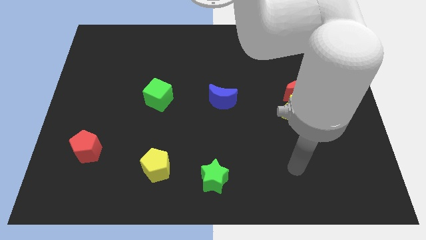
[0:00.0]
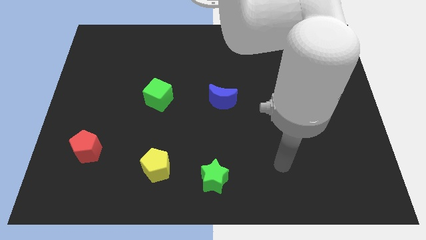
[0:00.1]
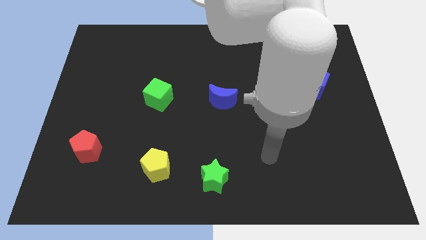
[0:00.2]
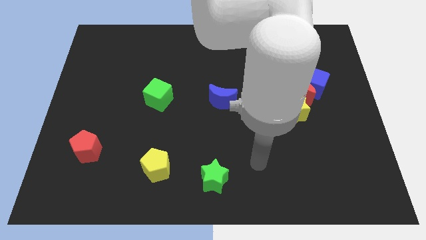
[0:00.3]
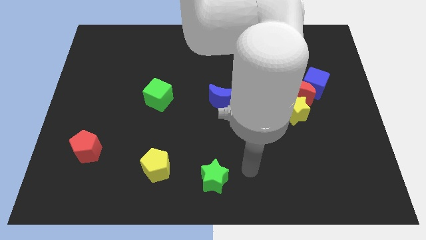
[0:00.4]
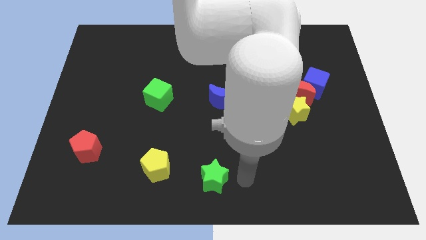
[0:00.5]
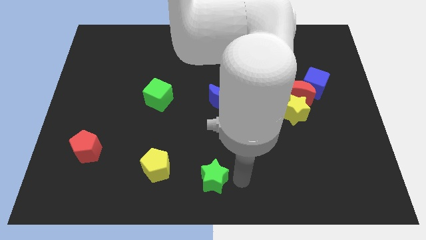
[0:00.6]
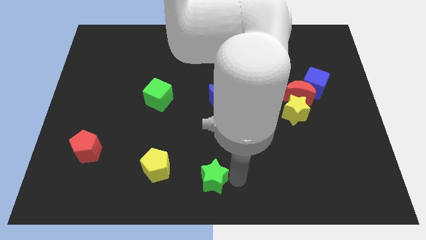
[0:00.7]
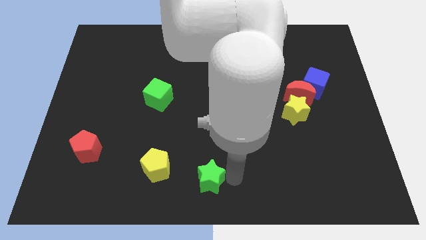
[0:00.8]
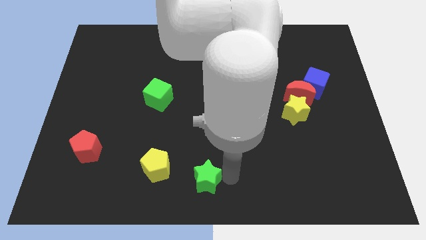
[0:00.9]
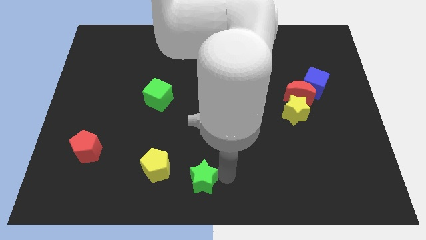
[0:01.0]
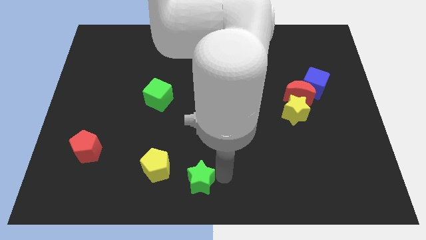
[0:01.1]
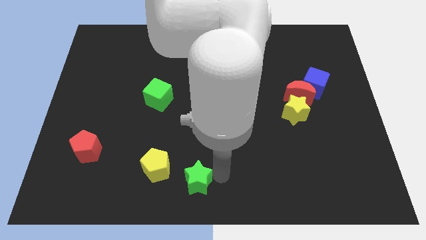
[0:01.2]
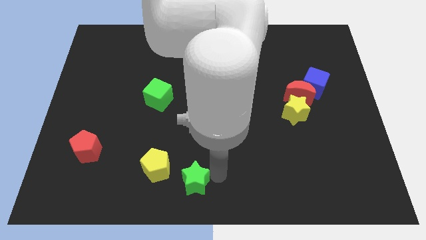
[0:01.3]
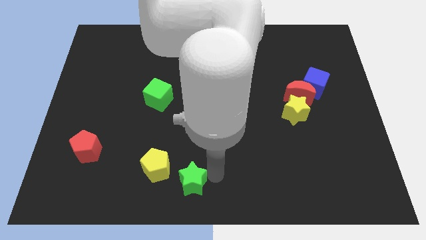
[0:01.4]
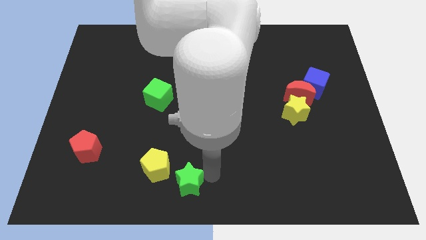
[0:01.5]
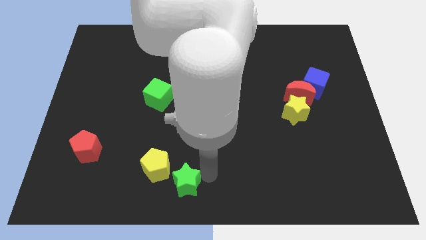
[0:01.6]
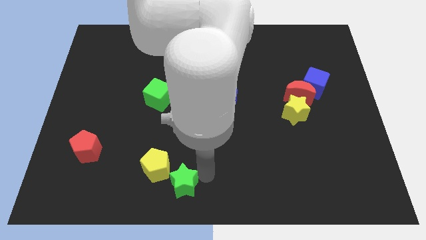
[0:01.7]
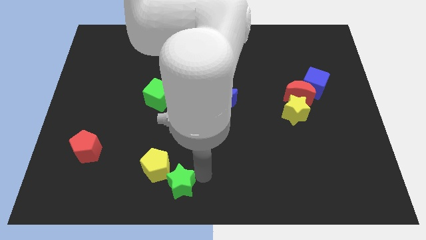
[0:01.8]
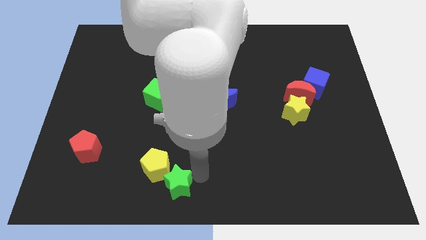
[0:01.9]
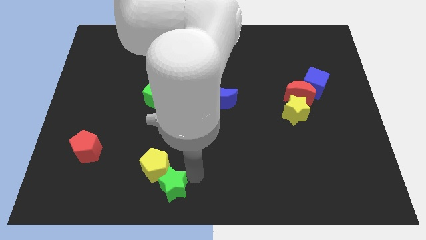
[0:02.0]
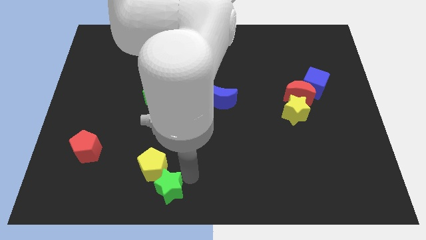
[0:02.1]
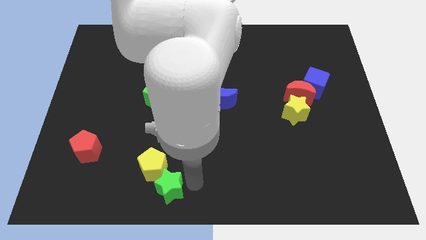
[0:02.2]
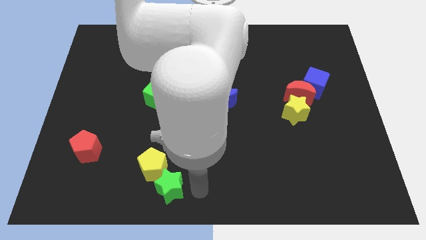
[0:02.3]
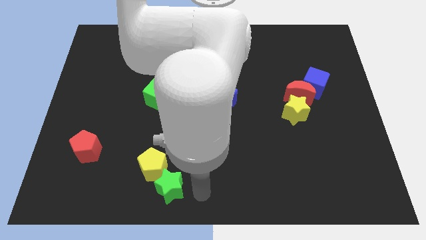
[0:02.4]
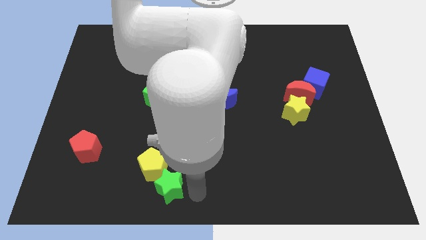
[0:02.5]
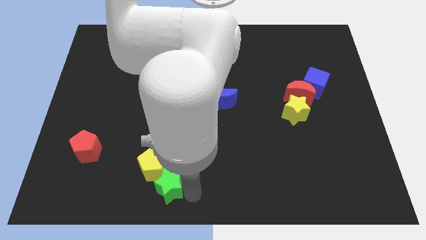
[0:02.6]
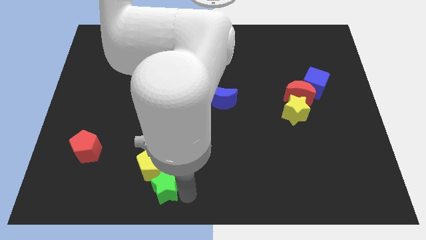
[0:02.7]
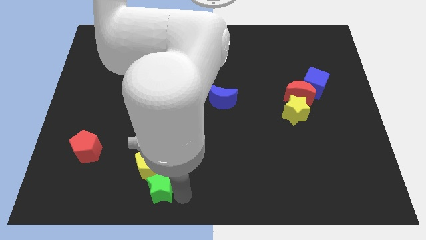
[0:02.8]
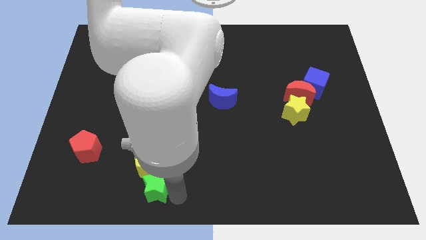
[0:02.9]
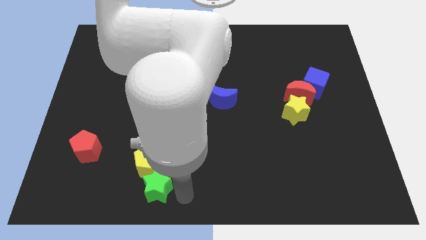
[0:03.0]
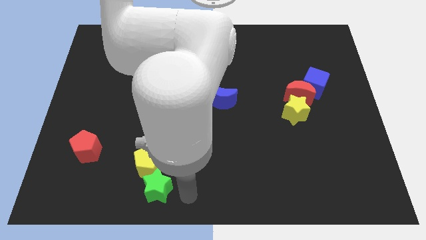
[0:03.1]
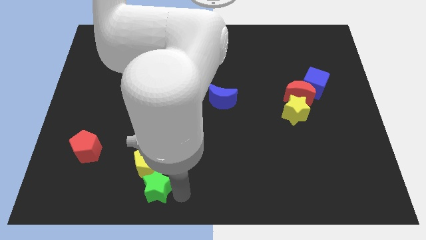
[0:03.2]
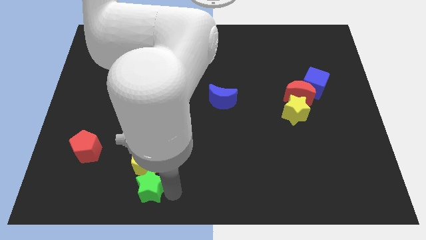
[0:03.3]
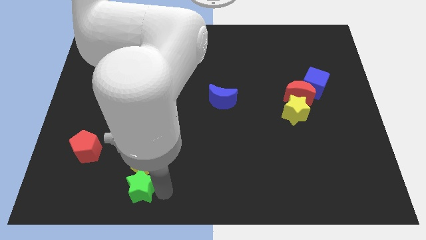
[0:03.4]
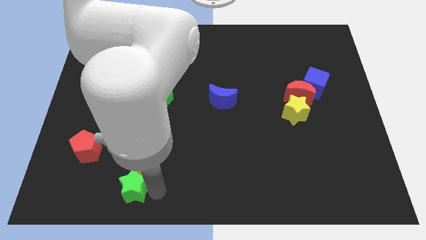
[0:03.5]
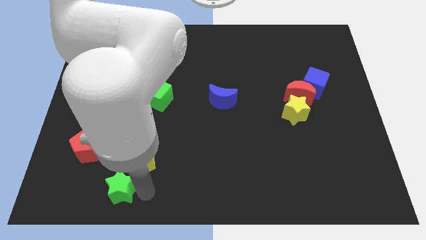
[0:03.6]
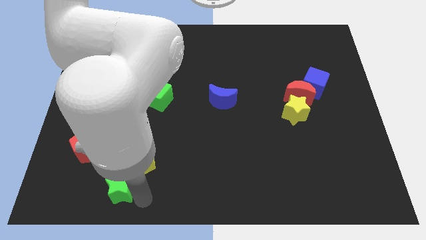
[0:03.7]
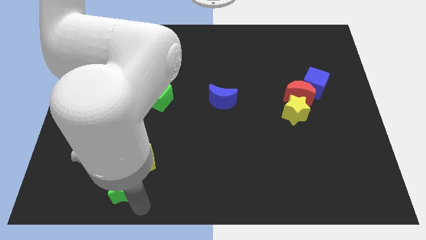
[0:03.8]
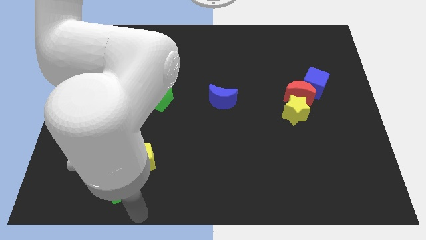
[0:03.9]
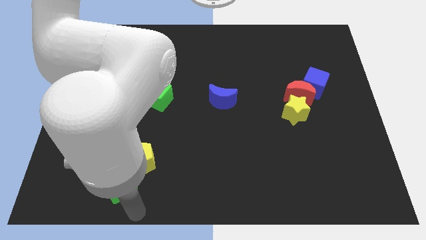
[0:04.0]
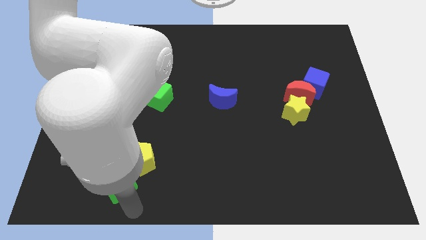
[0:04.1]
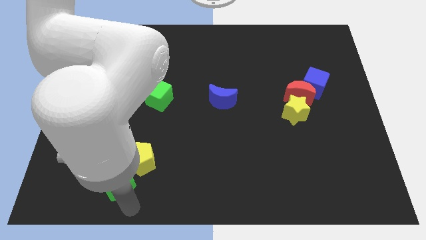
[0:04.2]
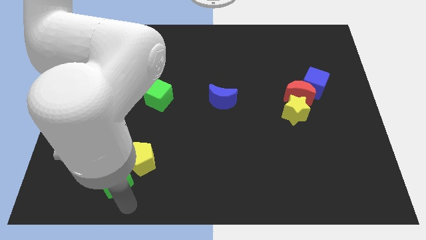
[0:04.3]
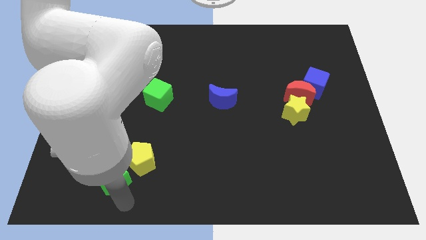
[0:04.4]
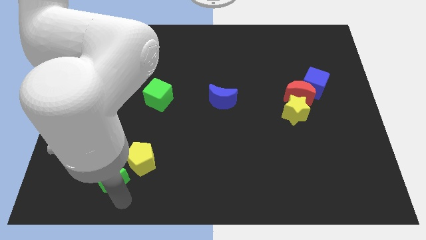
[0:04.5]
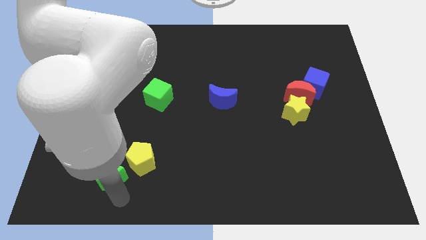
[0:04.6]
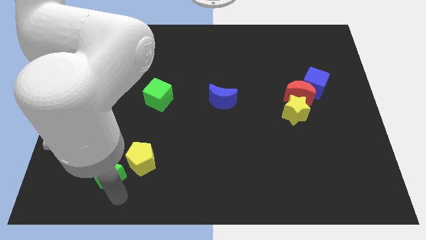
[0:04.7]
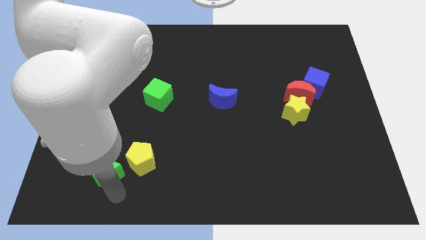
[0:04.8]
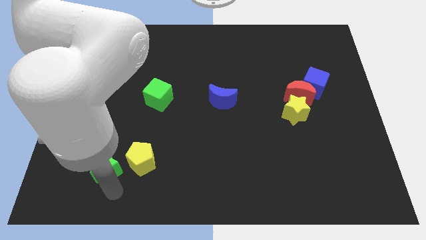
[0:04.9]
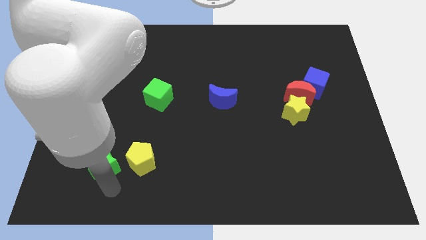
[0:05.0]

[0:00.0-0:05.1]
move the green star towards the red pentagon

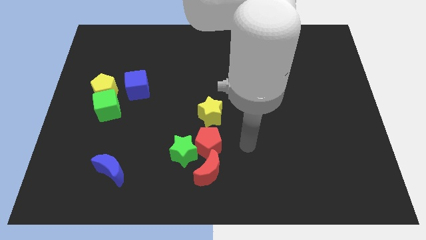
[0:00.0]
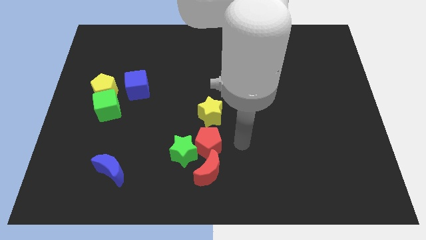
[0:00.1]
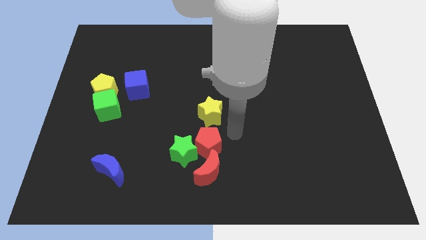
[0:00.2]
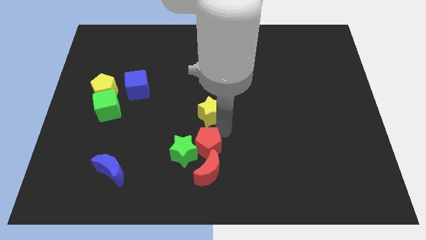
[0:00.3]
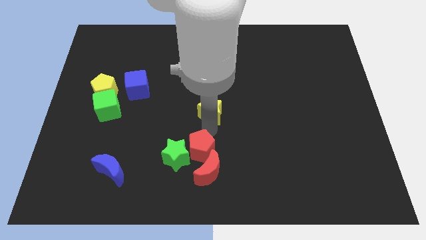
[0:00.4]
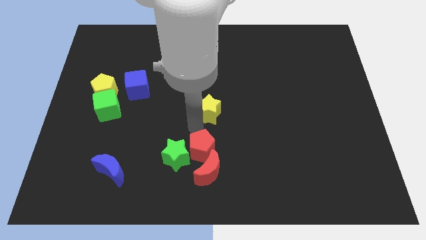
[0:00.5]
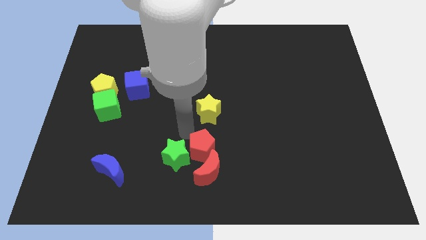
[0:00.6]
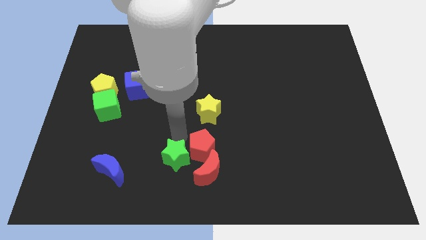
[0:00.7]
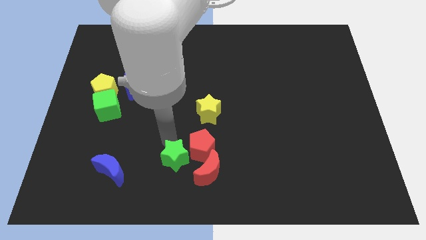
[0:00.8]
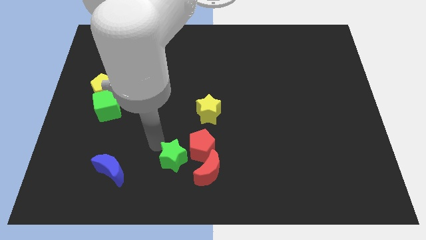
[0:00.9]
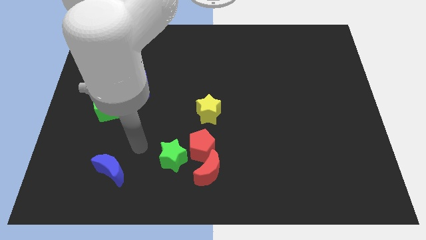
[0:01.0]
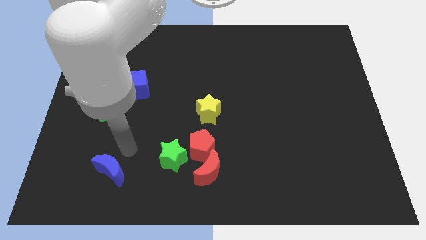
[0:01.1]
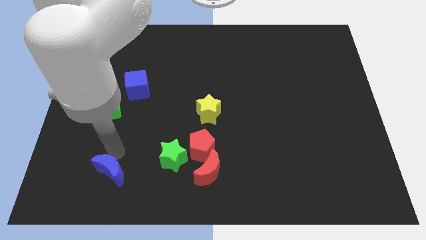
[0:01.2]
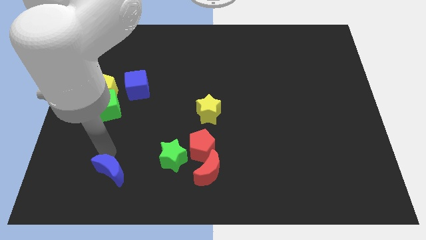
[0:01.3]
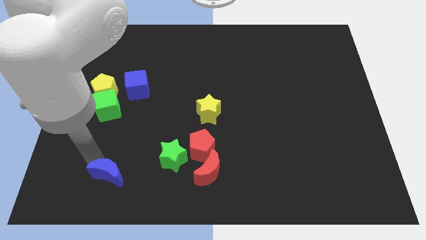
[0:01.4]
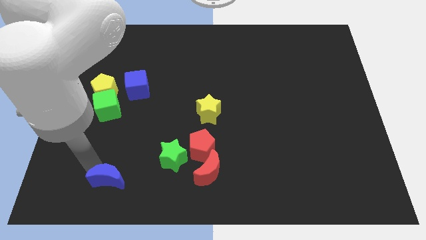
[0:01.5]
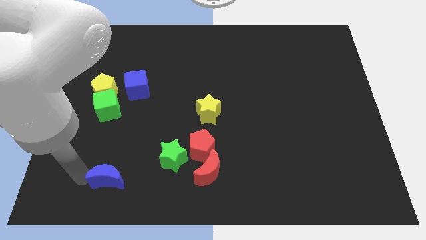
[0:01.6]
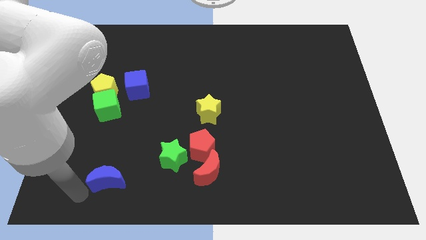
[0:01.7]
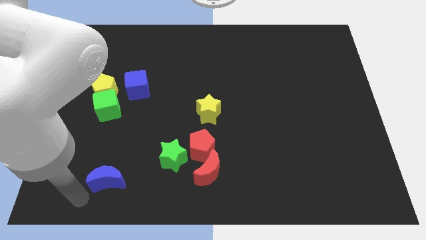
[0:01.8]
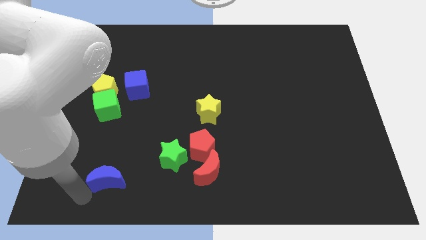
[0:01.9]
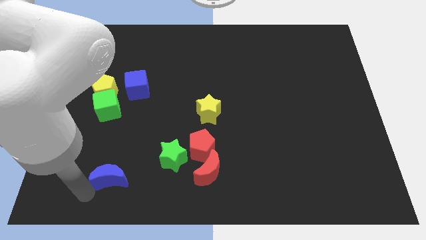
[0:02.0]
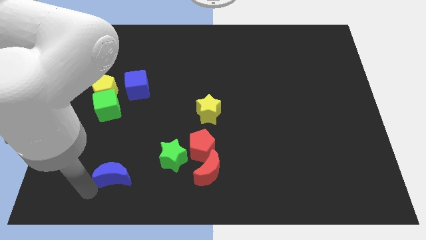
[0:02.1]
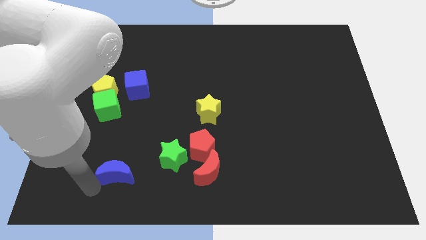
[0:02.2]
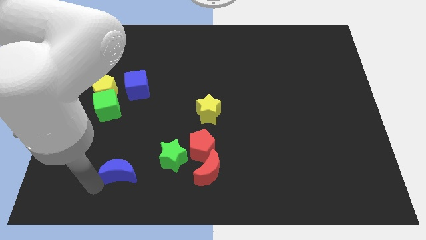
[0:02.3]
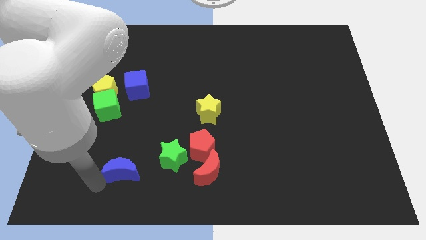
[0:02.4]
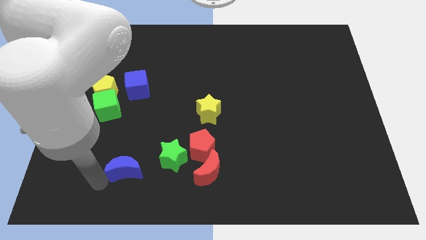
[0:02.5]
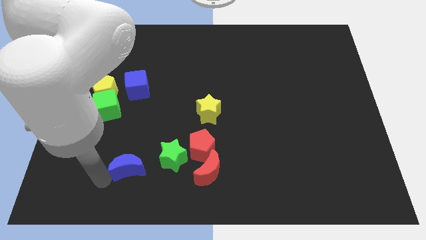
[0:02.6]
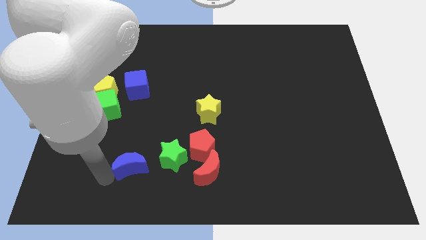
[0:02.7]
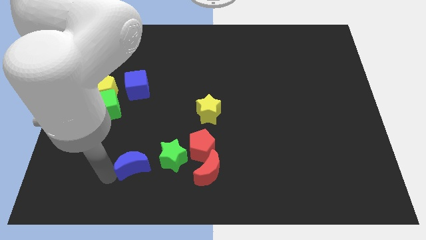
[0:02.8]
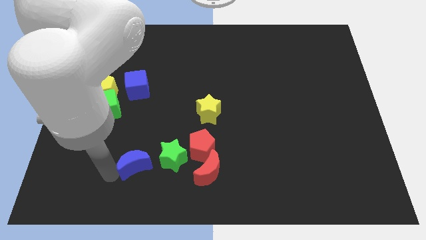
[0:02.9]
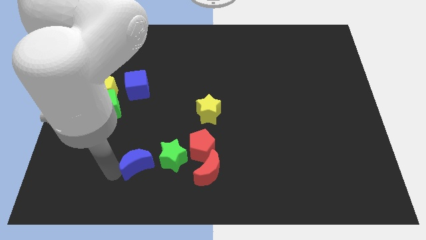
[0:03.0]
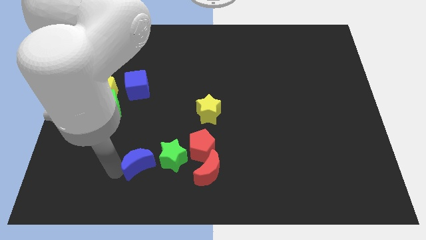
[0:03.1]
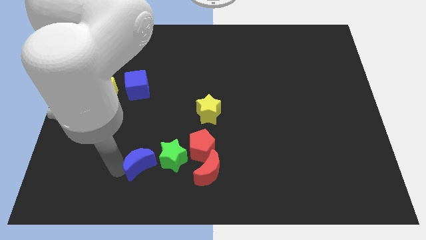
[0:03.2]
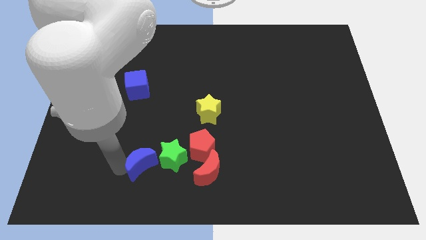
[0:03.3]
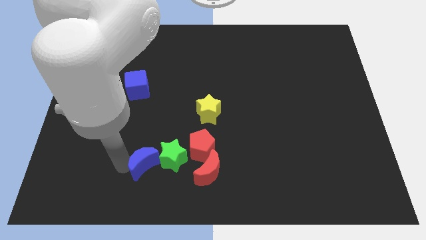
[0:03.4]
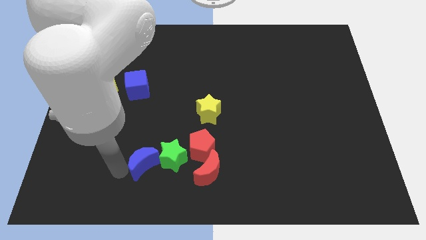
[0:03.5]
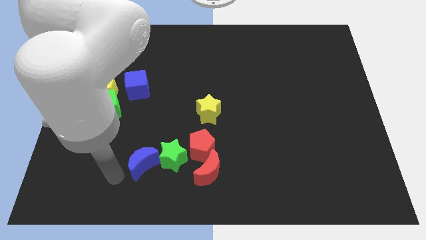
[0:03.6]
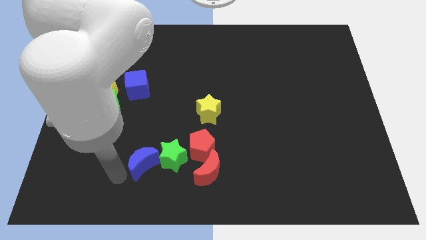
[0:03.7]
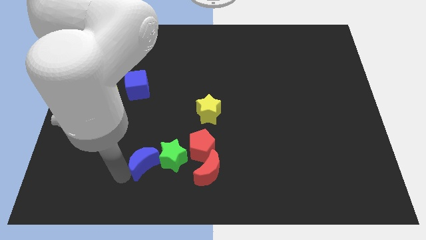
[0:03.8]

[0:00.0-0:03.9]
slide the blue moon to the green star
